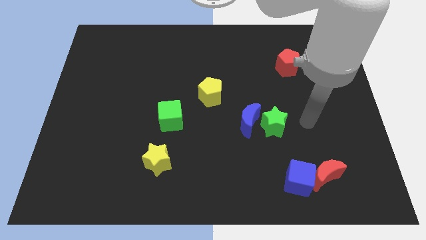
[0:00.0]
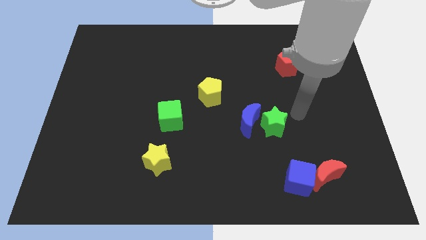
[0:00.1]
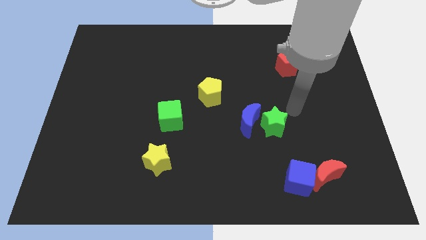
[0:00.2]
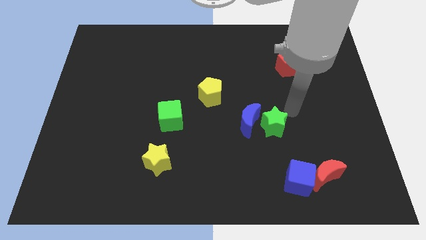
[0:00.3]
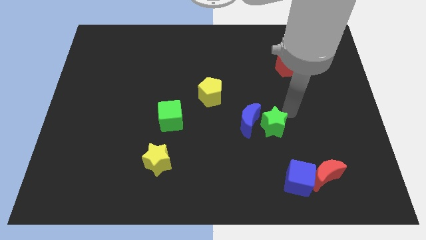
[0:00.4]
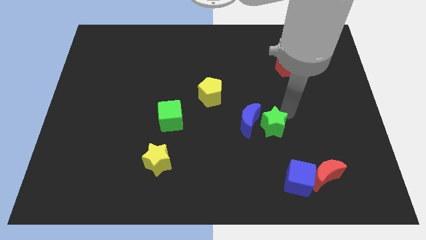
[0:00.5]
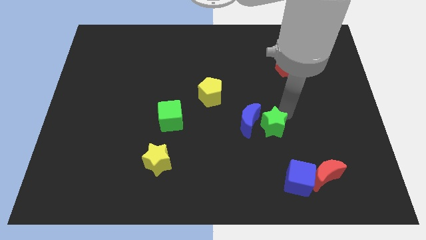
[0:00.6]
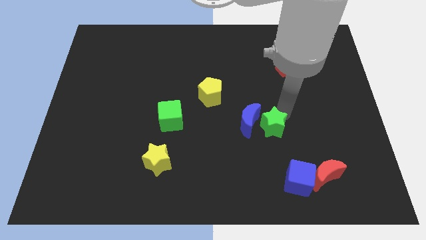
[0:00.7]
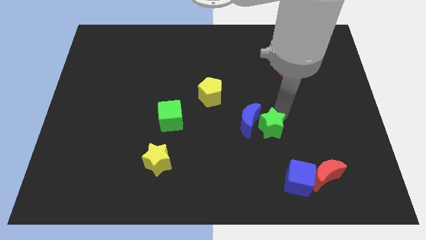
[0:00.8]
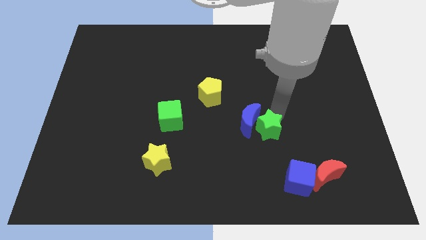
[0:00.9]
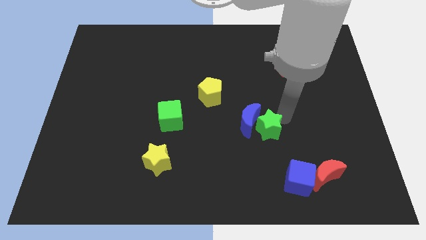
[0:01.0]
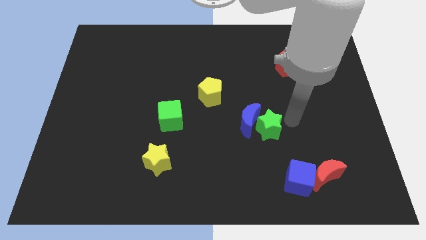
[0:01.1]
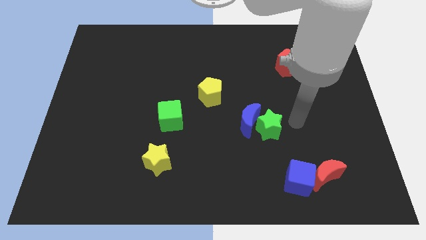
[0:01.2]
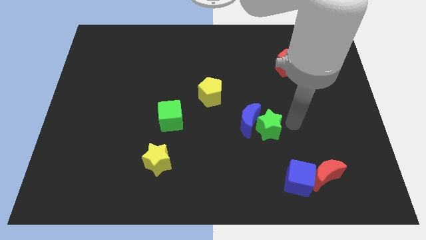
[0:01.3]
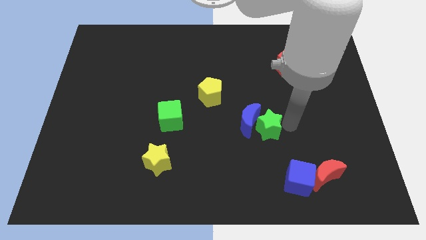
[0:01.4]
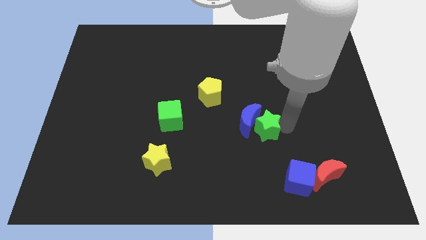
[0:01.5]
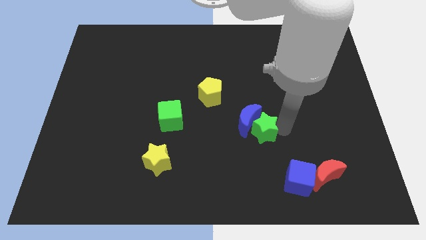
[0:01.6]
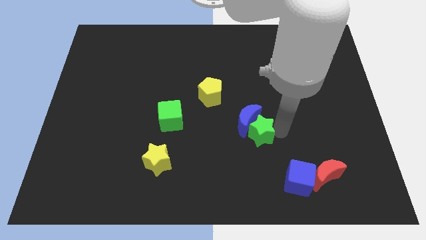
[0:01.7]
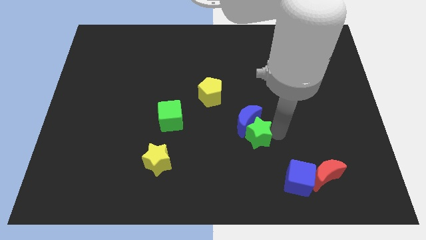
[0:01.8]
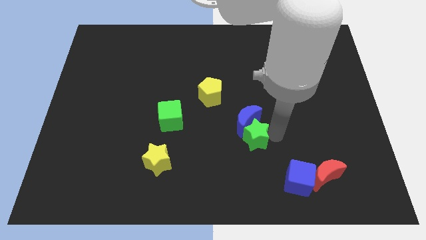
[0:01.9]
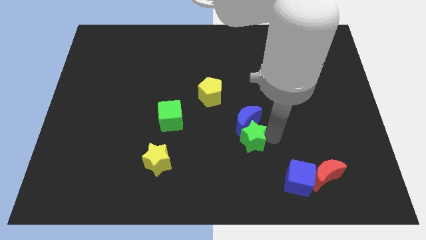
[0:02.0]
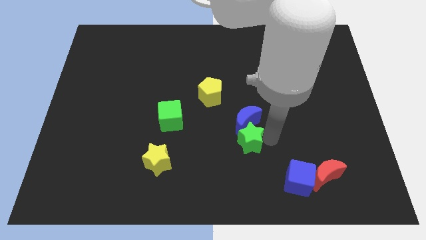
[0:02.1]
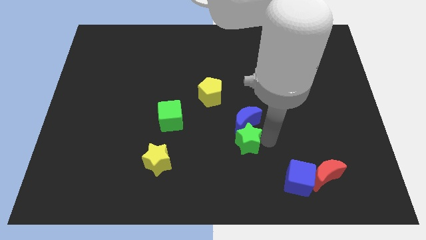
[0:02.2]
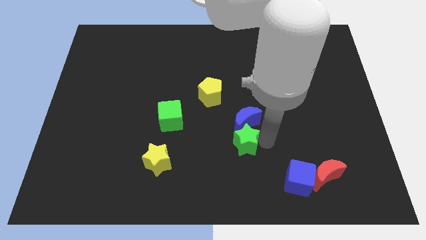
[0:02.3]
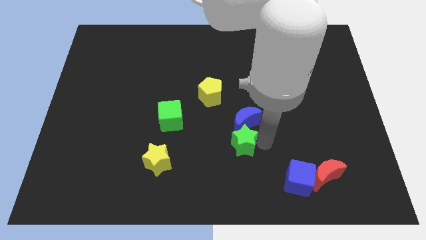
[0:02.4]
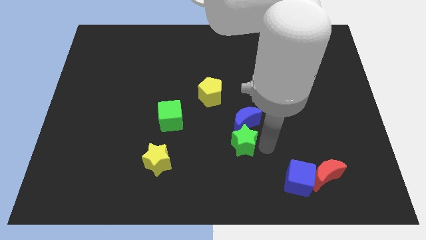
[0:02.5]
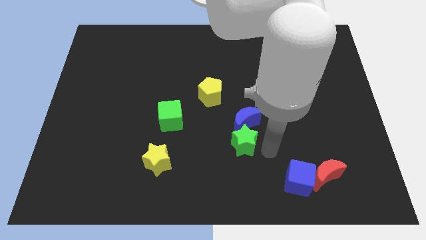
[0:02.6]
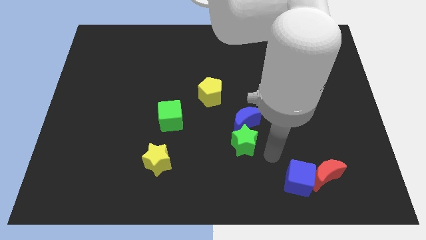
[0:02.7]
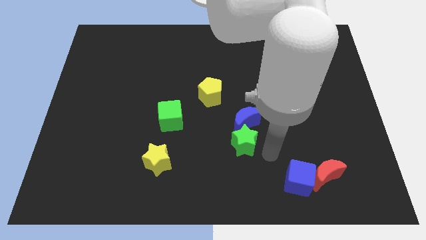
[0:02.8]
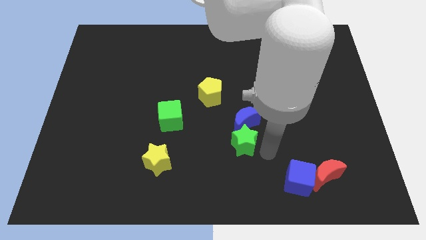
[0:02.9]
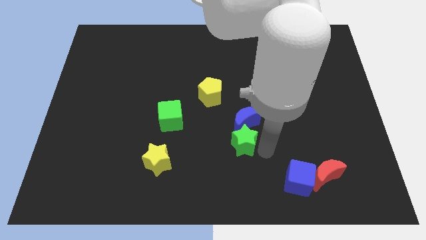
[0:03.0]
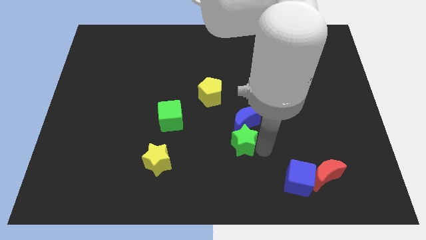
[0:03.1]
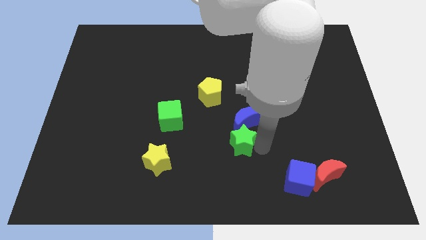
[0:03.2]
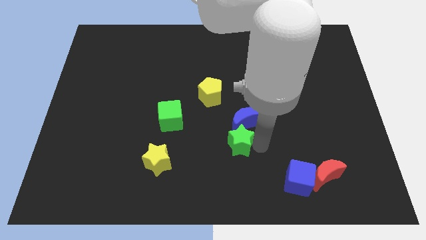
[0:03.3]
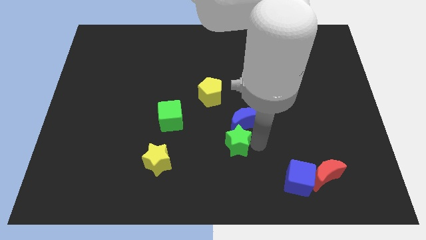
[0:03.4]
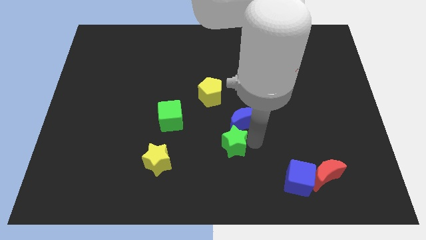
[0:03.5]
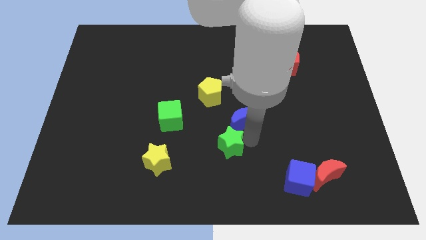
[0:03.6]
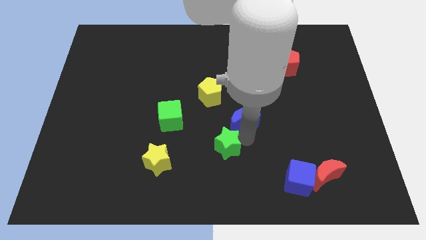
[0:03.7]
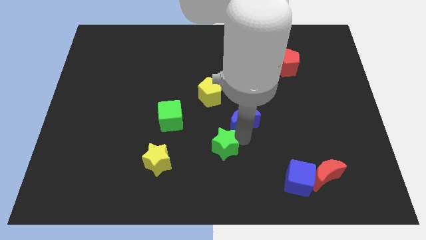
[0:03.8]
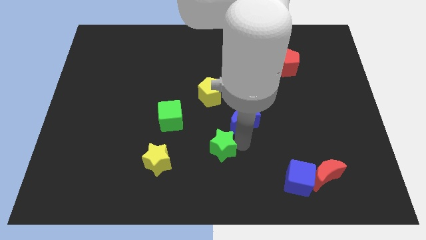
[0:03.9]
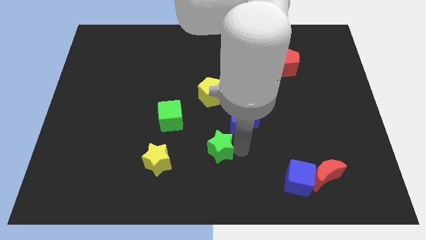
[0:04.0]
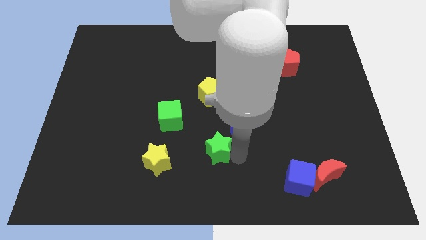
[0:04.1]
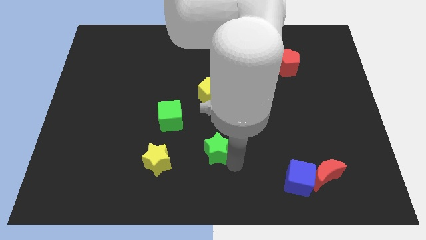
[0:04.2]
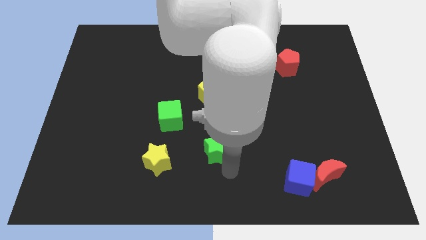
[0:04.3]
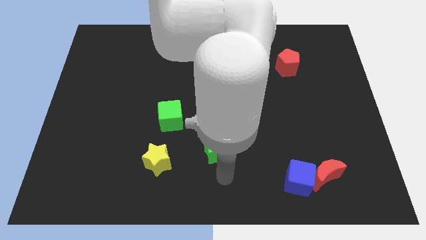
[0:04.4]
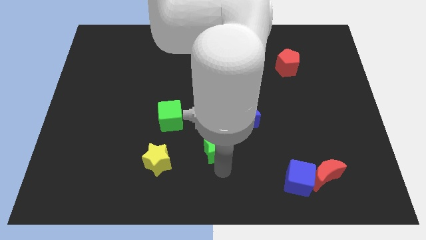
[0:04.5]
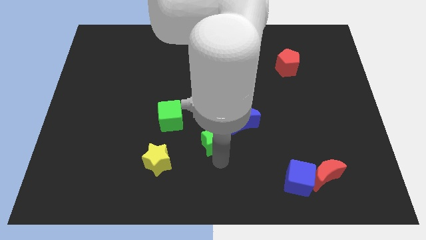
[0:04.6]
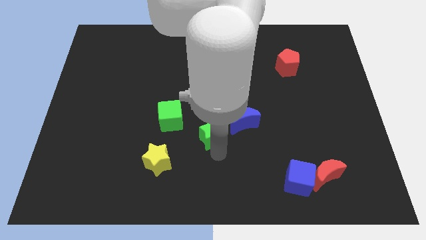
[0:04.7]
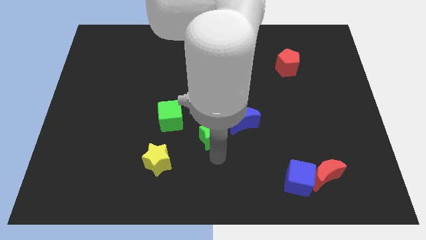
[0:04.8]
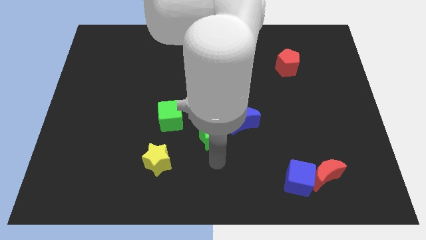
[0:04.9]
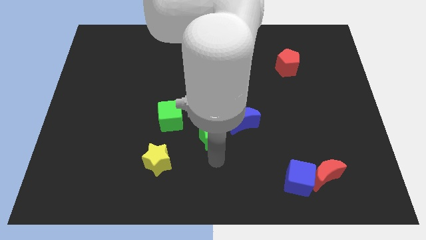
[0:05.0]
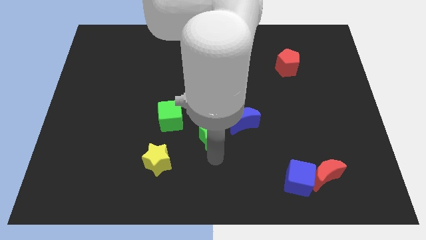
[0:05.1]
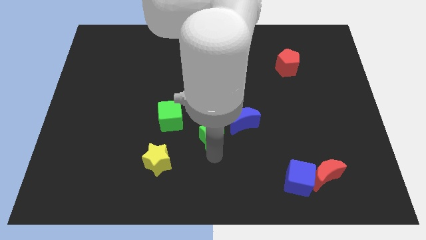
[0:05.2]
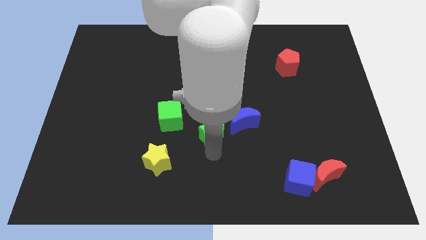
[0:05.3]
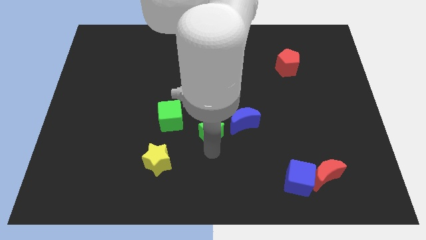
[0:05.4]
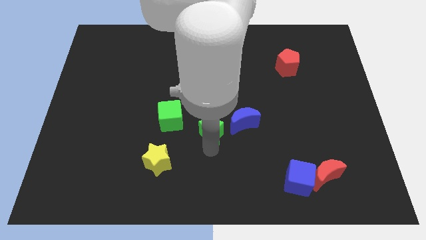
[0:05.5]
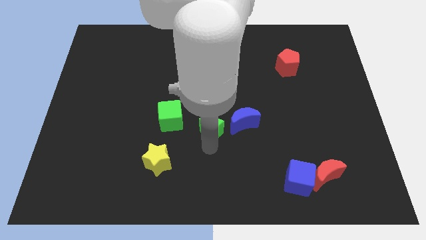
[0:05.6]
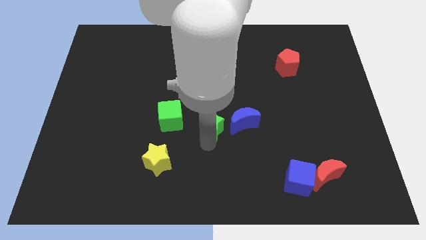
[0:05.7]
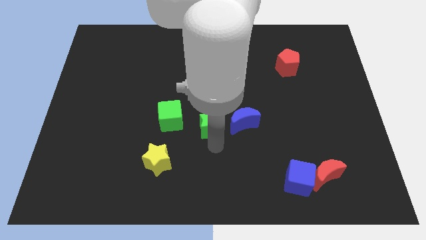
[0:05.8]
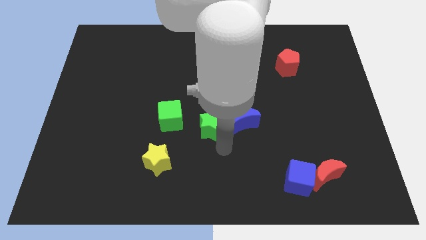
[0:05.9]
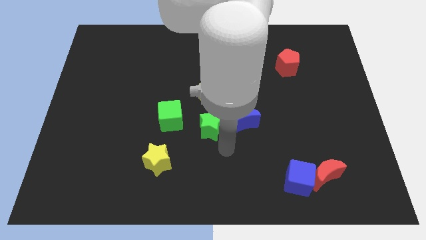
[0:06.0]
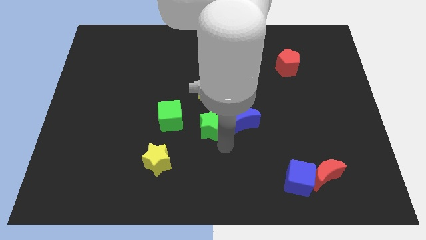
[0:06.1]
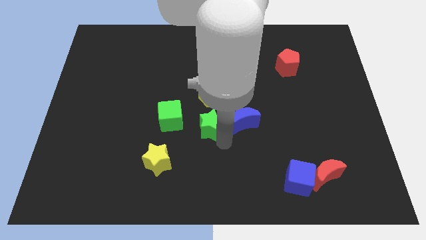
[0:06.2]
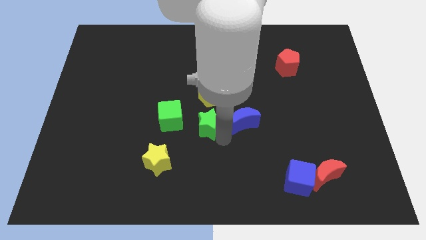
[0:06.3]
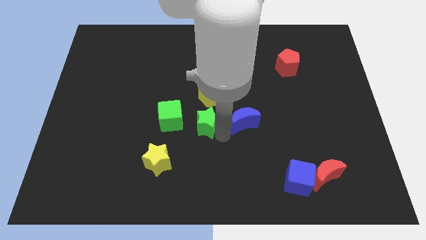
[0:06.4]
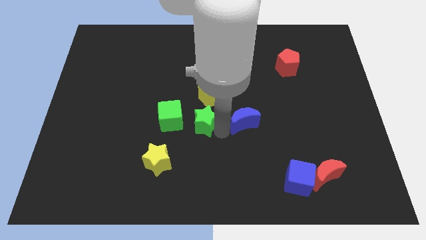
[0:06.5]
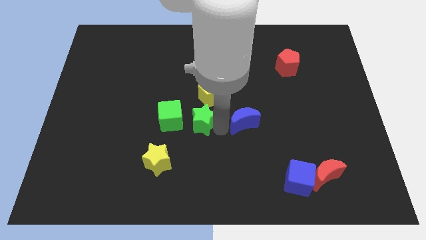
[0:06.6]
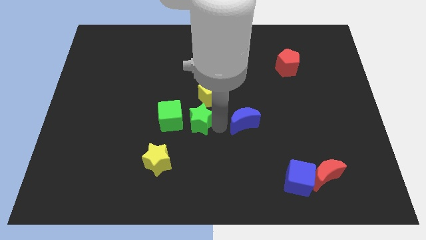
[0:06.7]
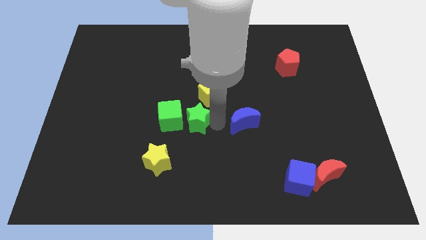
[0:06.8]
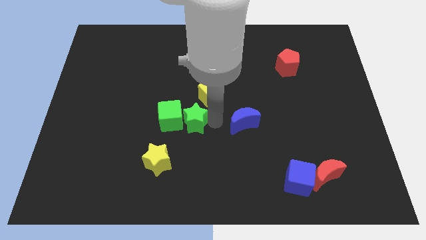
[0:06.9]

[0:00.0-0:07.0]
push the green star diagonally up and to the right of the green cube

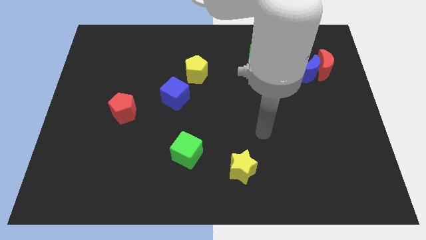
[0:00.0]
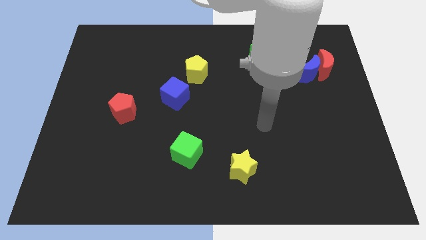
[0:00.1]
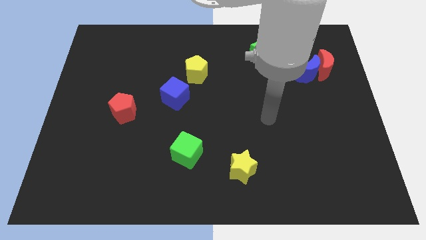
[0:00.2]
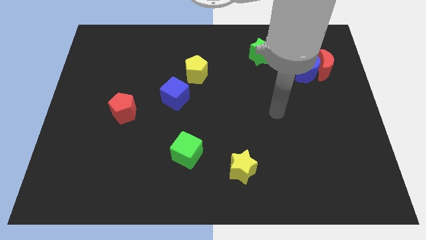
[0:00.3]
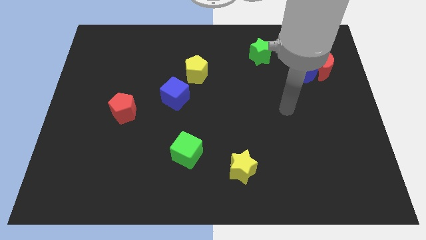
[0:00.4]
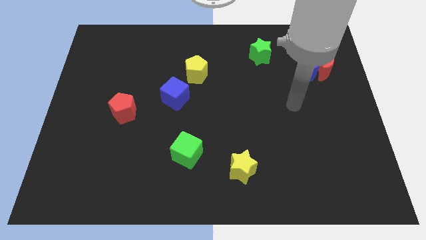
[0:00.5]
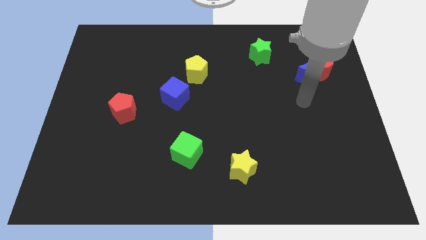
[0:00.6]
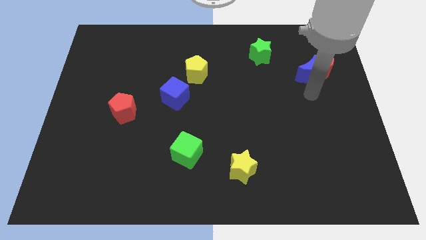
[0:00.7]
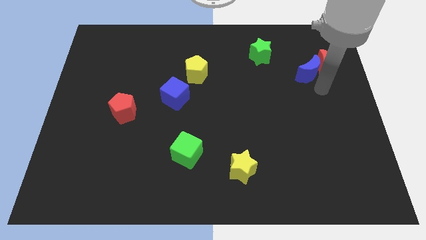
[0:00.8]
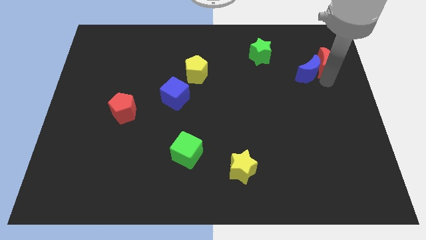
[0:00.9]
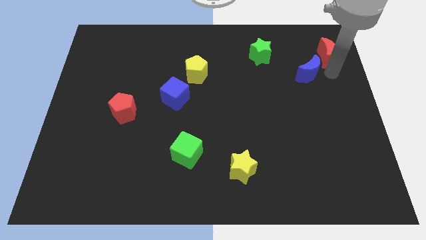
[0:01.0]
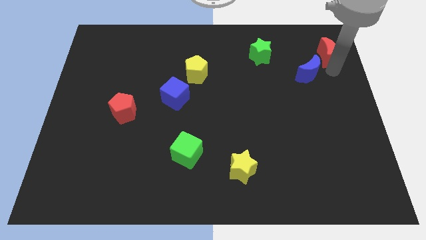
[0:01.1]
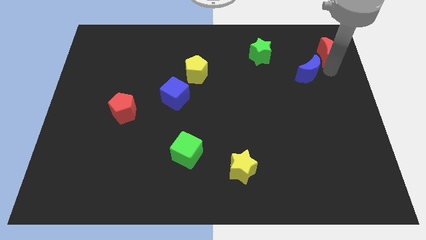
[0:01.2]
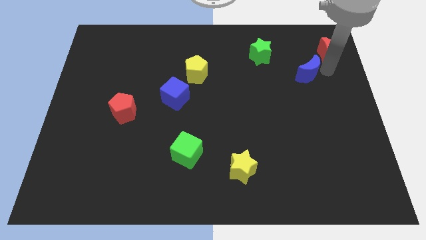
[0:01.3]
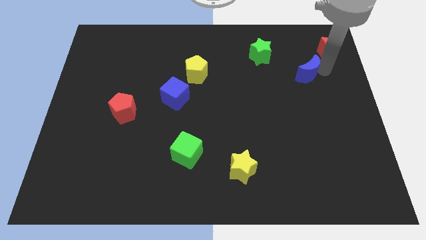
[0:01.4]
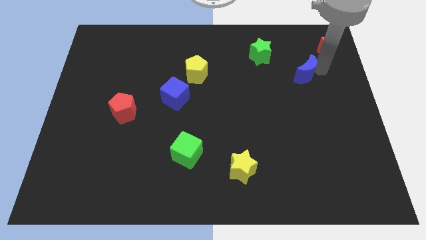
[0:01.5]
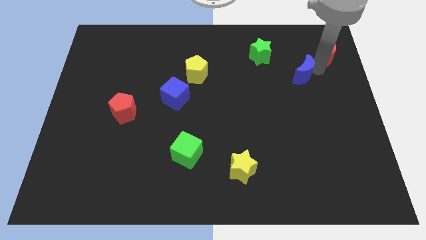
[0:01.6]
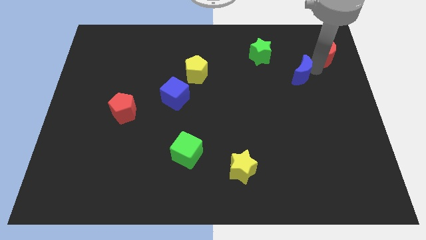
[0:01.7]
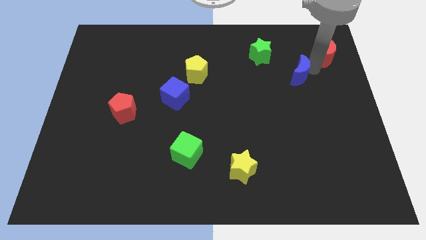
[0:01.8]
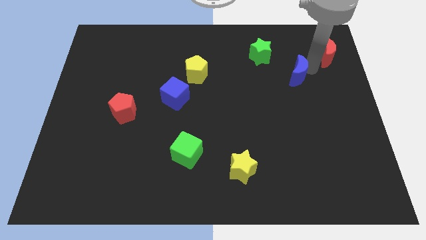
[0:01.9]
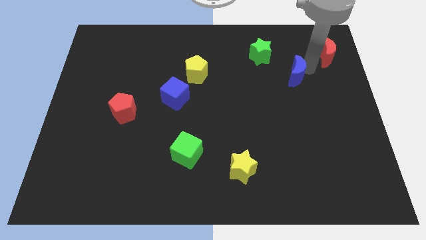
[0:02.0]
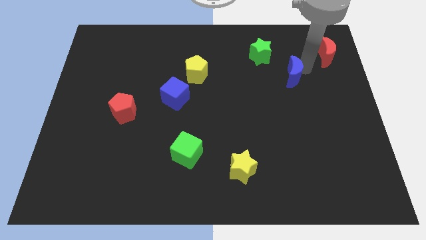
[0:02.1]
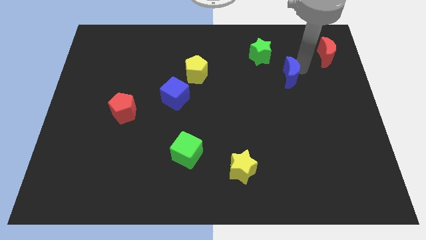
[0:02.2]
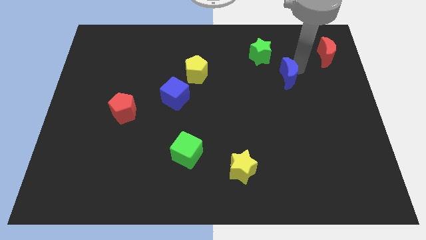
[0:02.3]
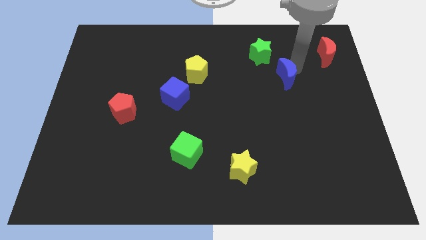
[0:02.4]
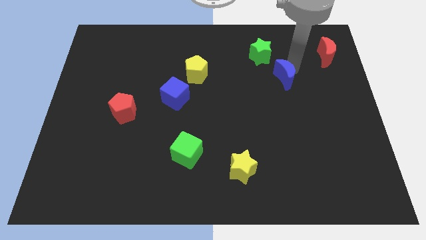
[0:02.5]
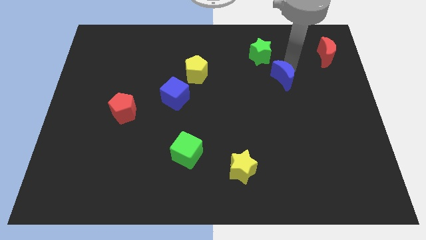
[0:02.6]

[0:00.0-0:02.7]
put the blue moon below the green star
